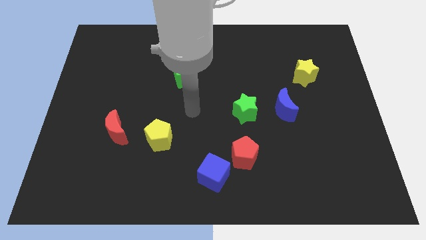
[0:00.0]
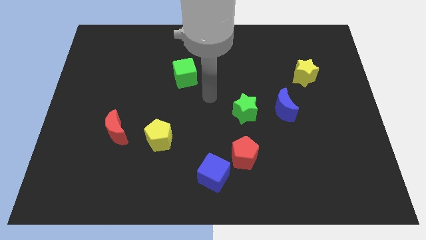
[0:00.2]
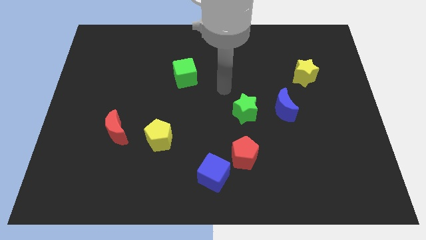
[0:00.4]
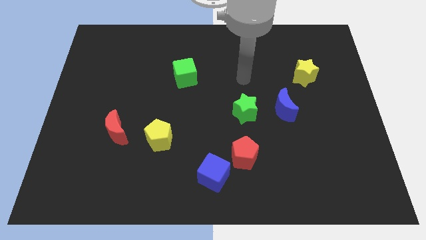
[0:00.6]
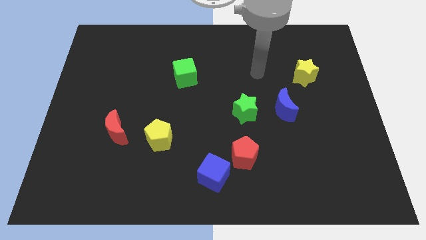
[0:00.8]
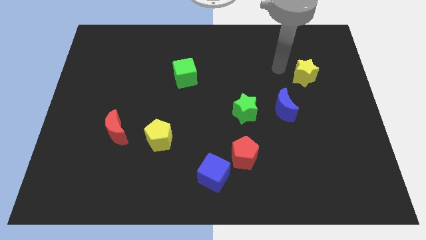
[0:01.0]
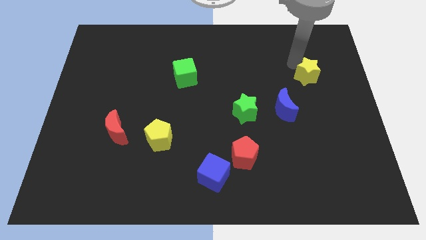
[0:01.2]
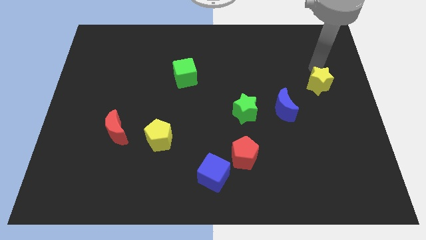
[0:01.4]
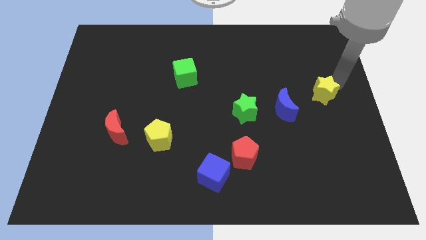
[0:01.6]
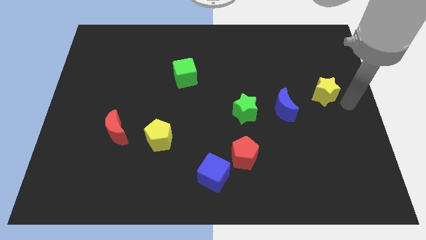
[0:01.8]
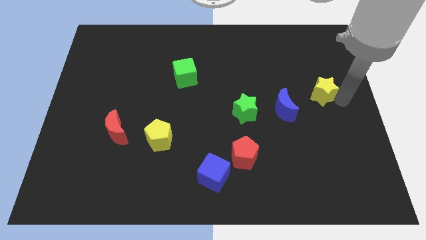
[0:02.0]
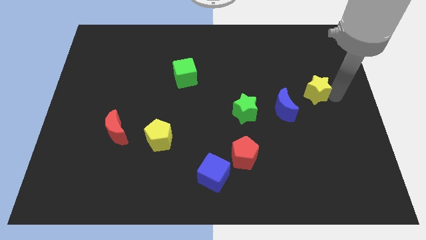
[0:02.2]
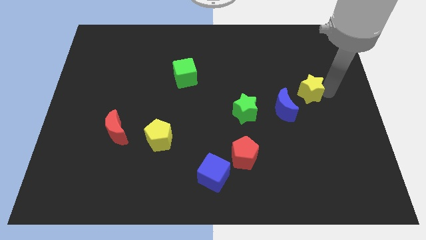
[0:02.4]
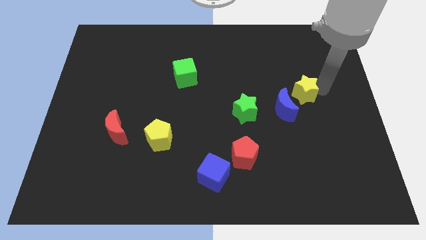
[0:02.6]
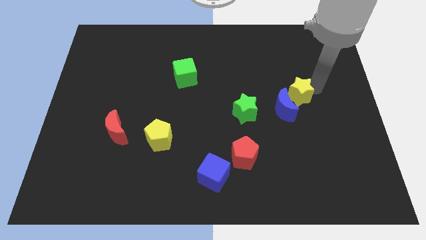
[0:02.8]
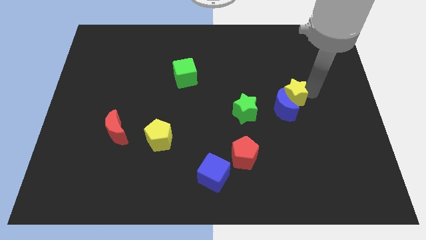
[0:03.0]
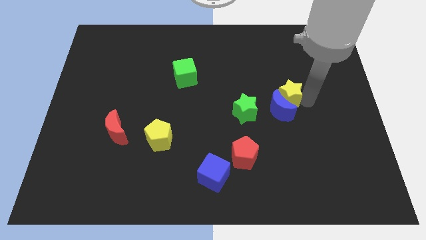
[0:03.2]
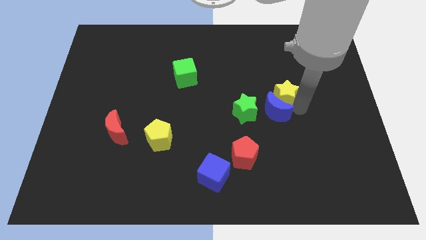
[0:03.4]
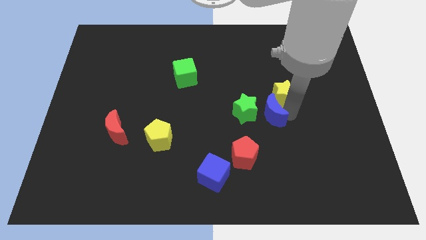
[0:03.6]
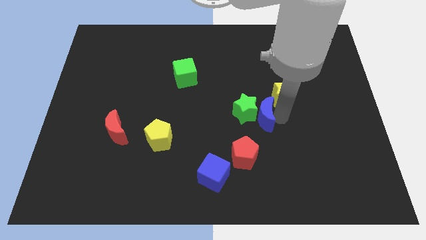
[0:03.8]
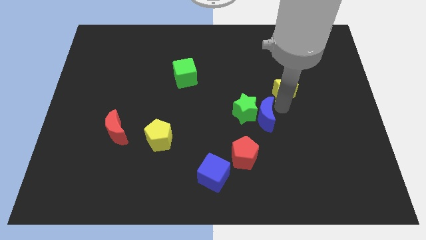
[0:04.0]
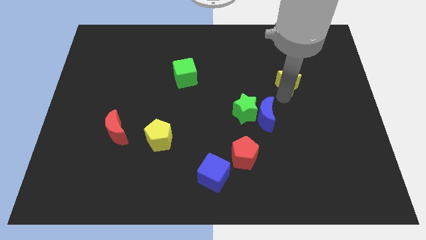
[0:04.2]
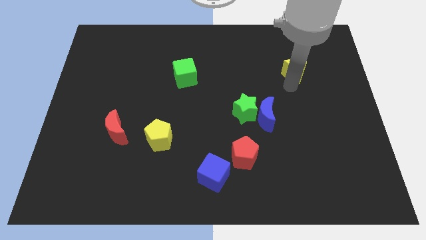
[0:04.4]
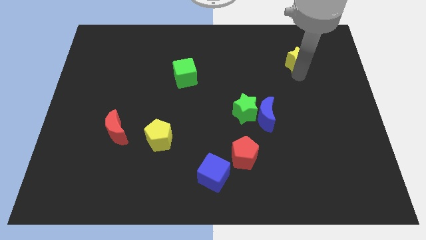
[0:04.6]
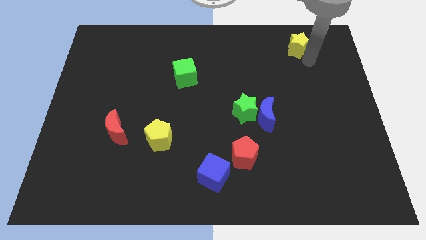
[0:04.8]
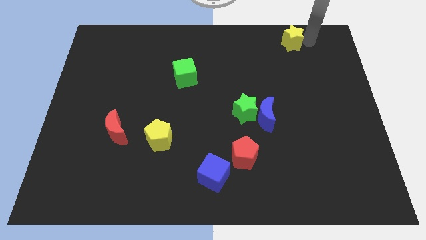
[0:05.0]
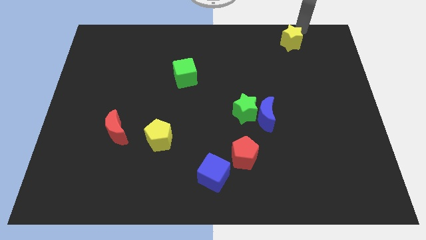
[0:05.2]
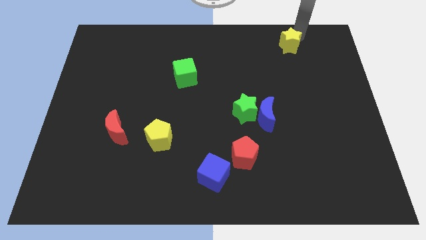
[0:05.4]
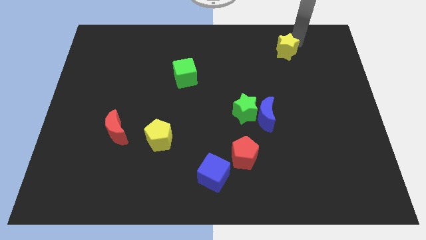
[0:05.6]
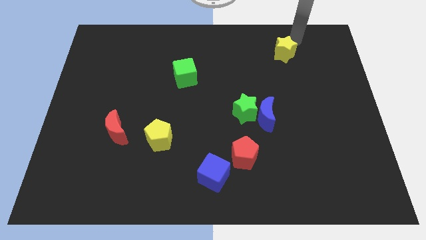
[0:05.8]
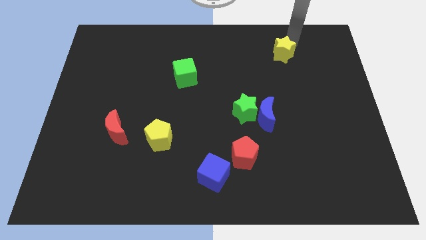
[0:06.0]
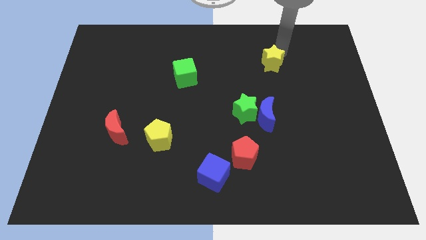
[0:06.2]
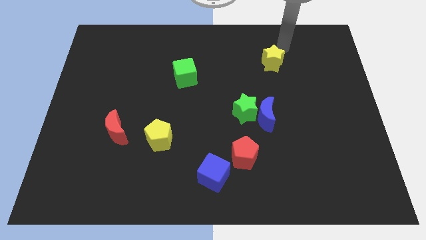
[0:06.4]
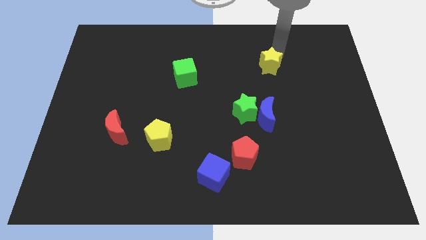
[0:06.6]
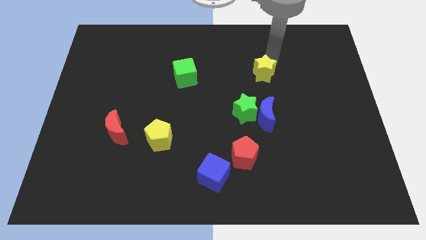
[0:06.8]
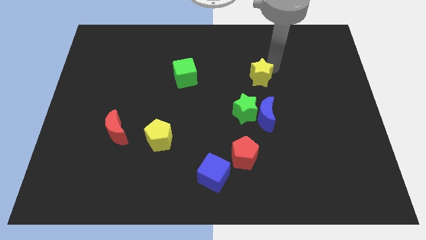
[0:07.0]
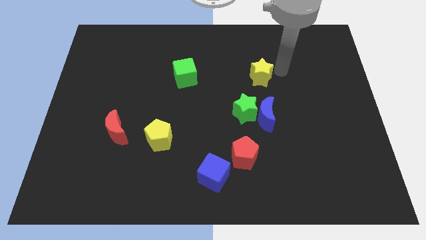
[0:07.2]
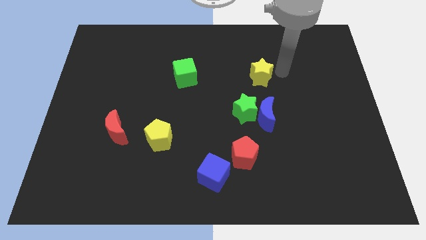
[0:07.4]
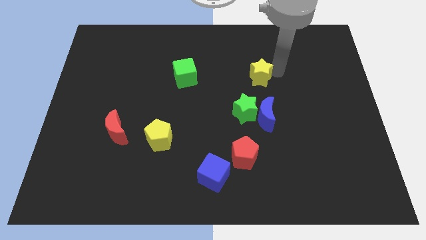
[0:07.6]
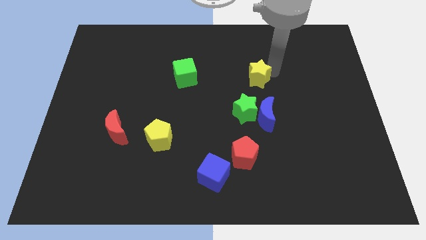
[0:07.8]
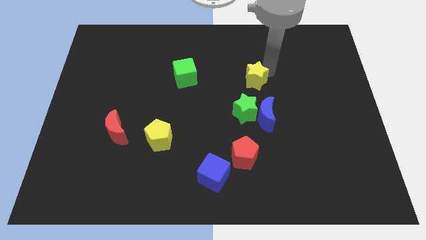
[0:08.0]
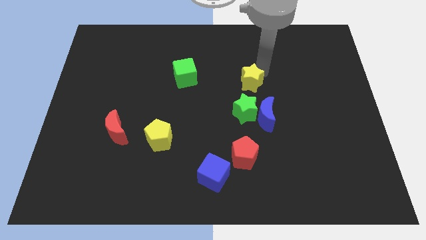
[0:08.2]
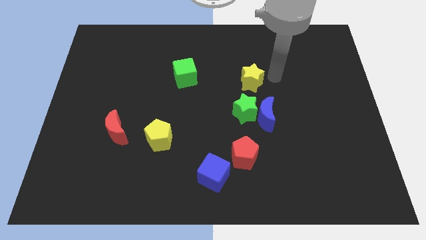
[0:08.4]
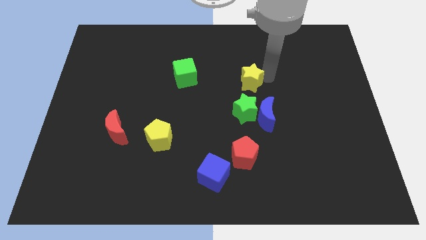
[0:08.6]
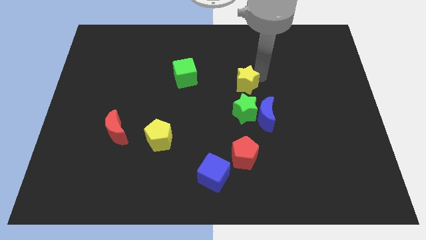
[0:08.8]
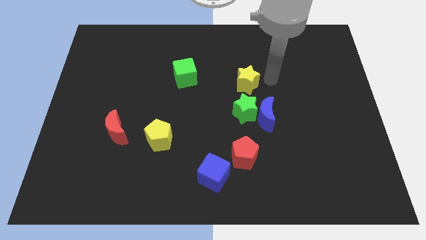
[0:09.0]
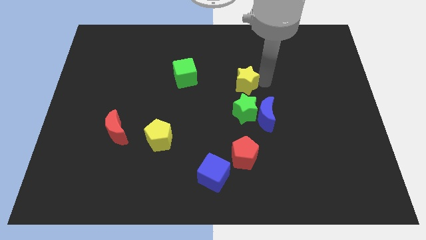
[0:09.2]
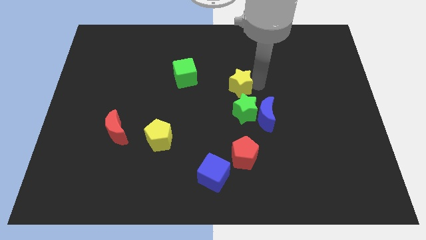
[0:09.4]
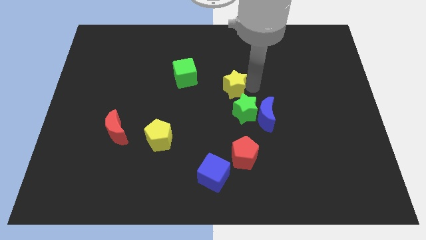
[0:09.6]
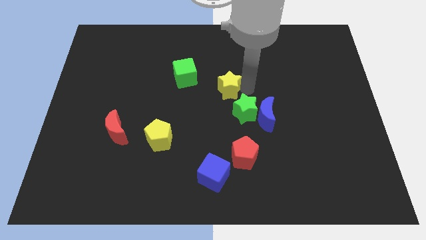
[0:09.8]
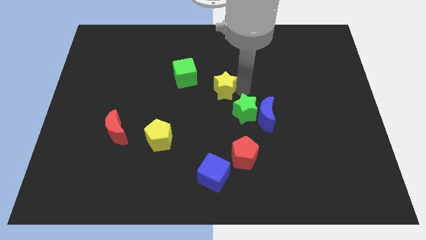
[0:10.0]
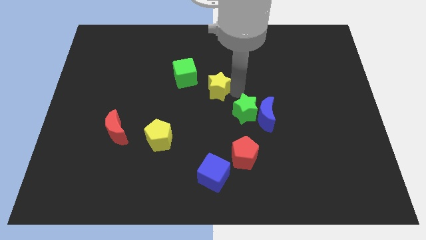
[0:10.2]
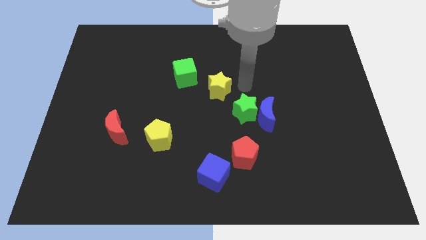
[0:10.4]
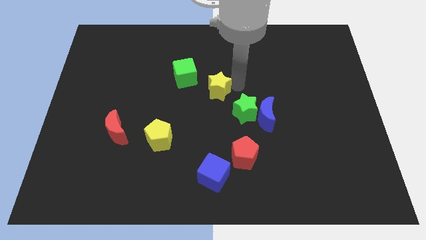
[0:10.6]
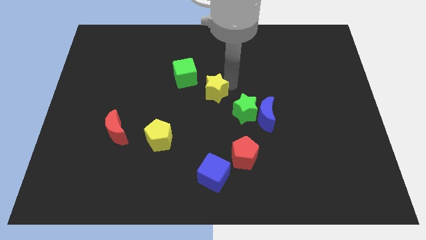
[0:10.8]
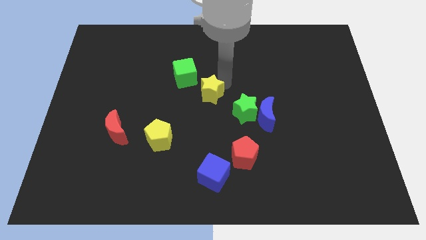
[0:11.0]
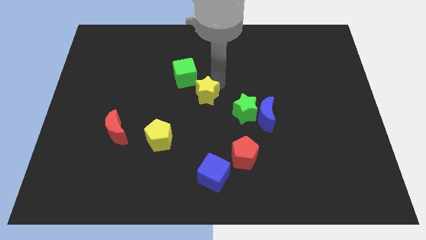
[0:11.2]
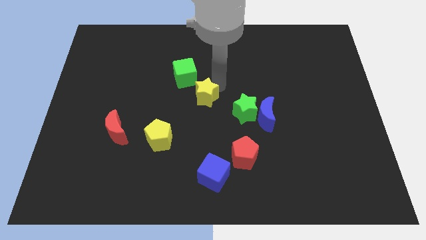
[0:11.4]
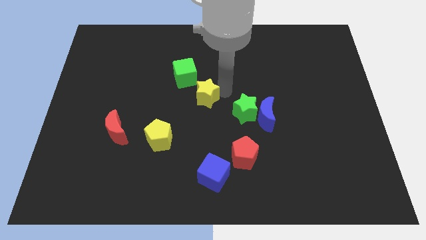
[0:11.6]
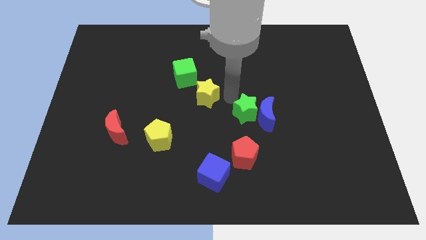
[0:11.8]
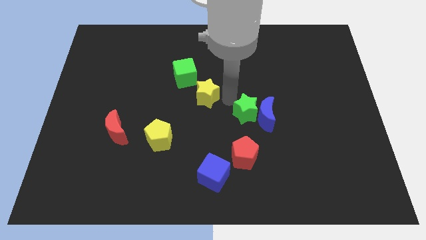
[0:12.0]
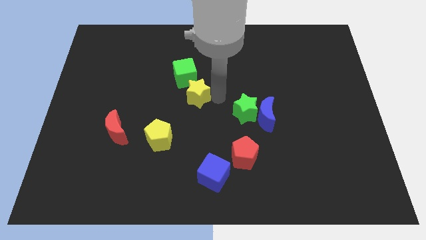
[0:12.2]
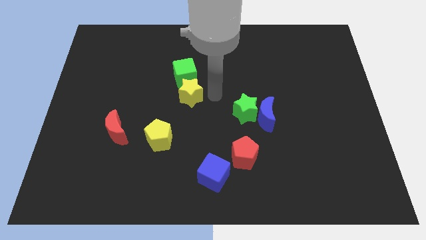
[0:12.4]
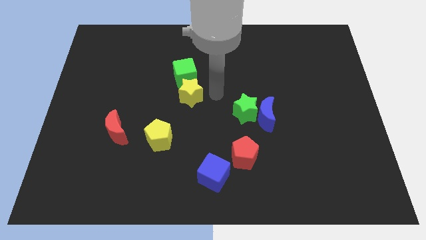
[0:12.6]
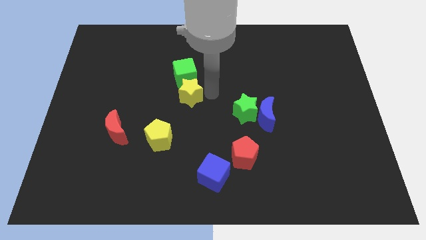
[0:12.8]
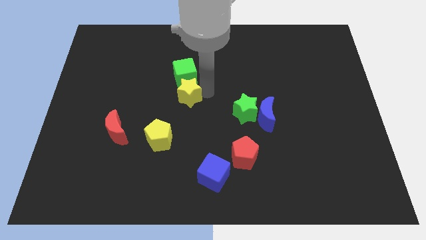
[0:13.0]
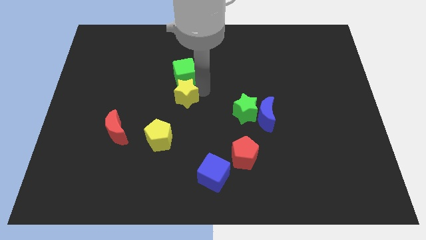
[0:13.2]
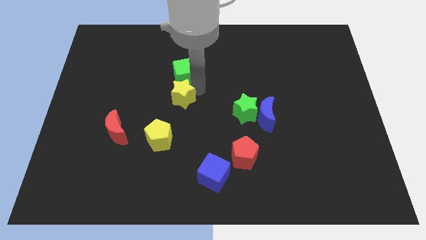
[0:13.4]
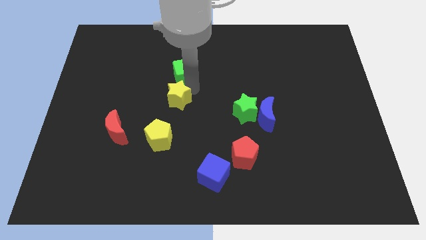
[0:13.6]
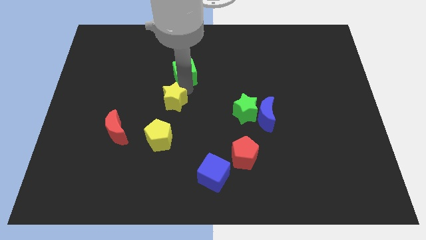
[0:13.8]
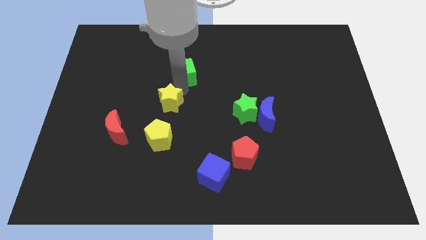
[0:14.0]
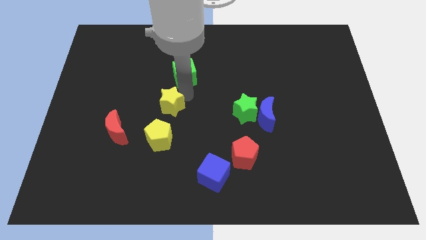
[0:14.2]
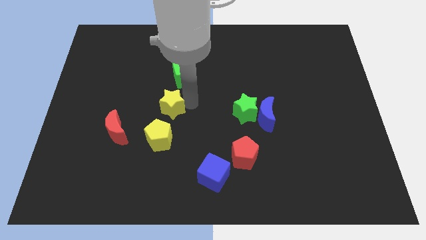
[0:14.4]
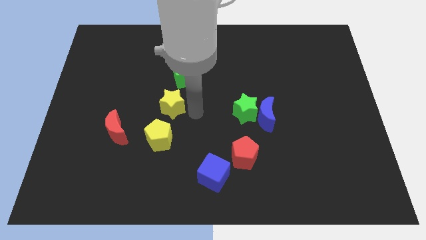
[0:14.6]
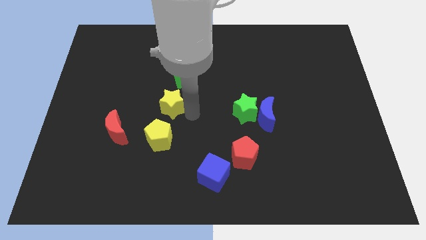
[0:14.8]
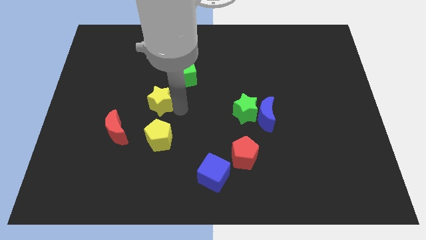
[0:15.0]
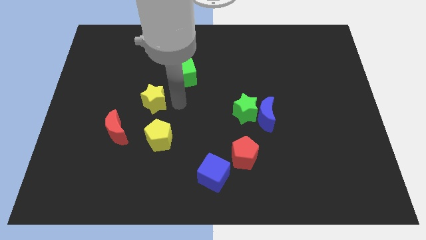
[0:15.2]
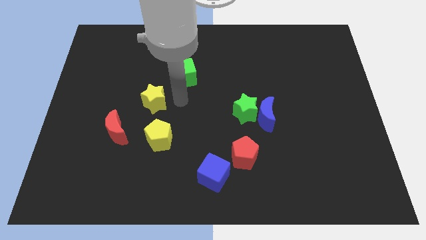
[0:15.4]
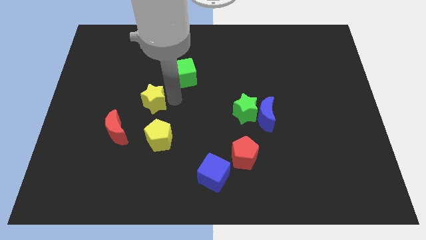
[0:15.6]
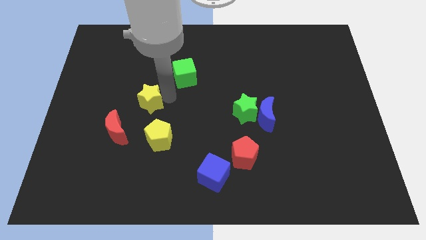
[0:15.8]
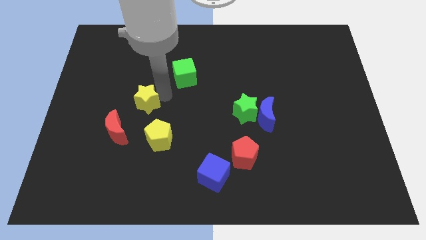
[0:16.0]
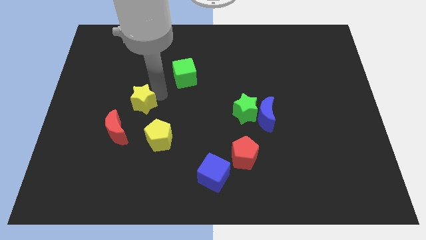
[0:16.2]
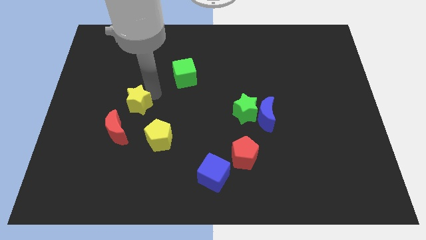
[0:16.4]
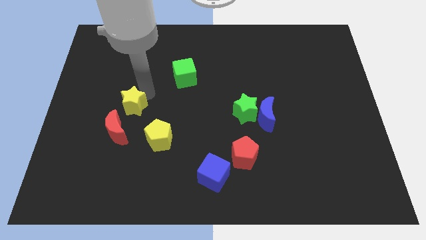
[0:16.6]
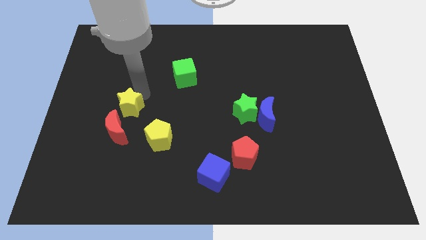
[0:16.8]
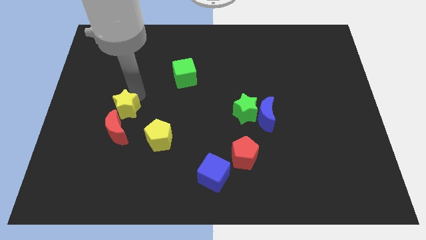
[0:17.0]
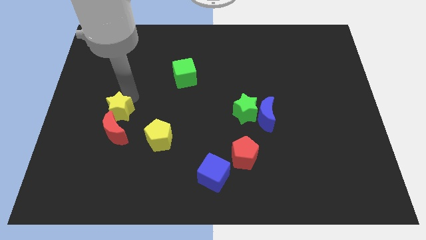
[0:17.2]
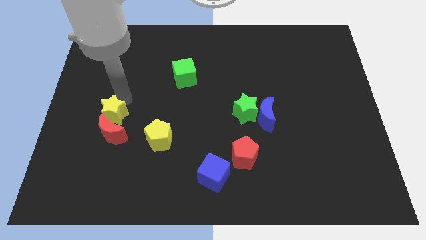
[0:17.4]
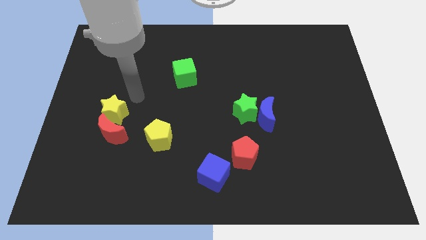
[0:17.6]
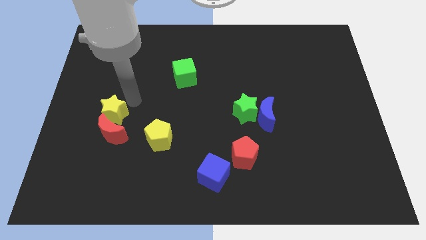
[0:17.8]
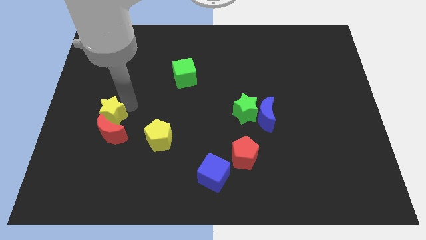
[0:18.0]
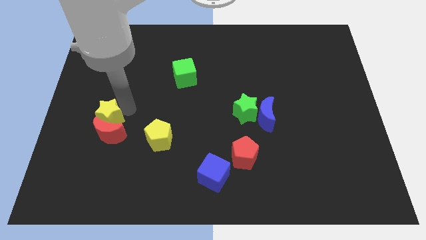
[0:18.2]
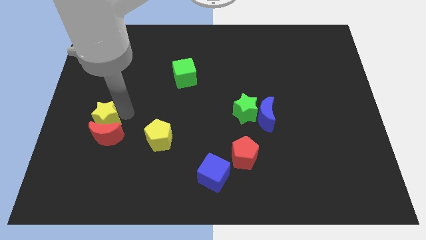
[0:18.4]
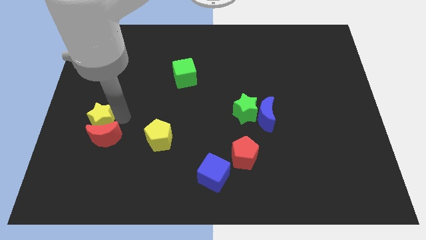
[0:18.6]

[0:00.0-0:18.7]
slide the yellow star to the left of the yellow pentagon
